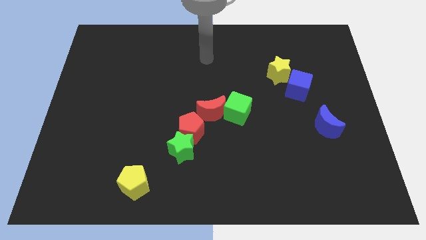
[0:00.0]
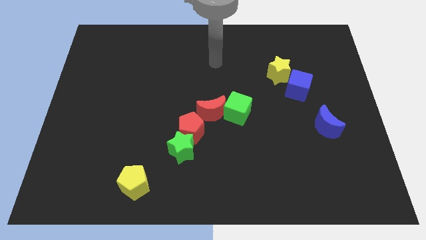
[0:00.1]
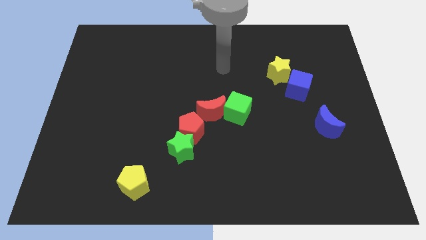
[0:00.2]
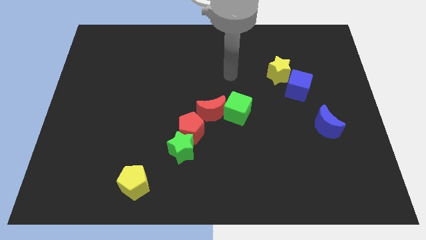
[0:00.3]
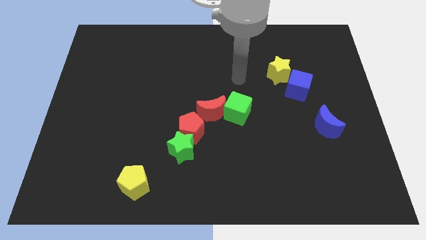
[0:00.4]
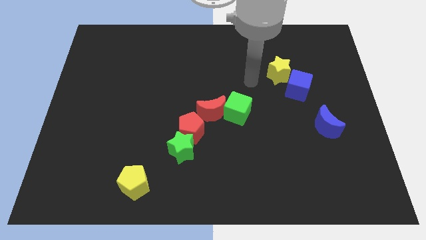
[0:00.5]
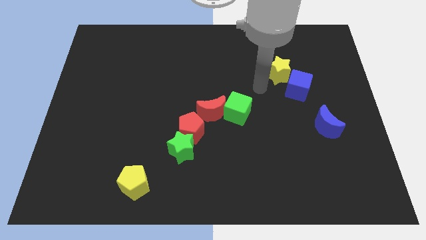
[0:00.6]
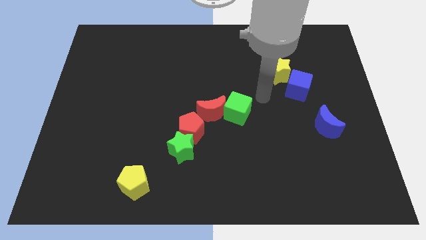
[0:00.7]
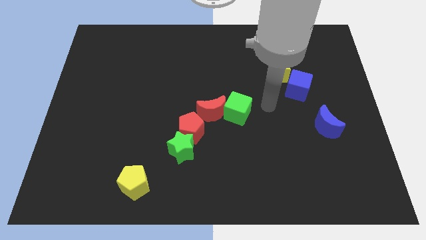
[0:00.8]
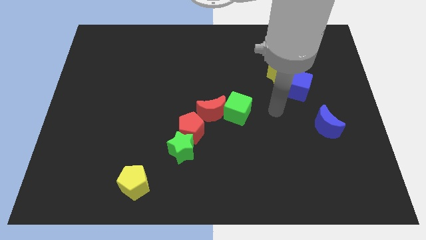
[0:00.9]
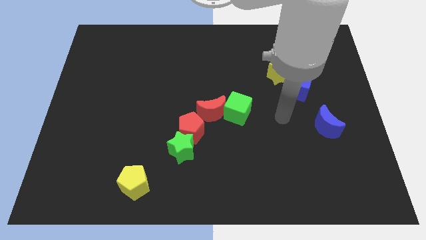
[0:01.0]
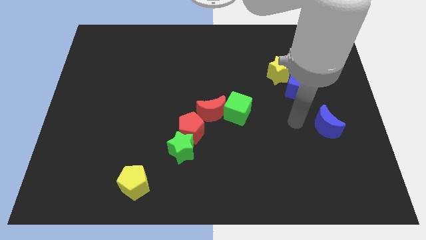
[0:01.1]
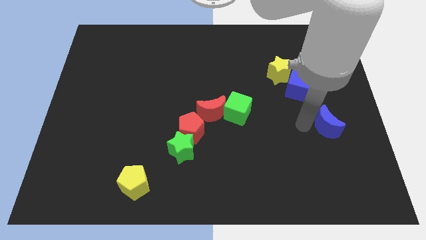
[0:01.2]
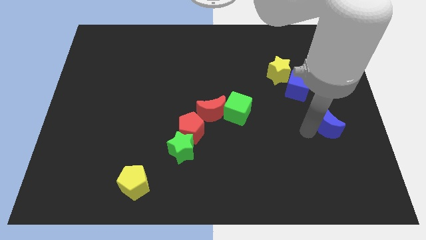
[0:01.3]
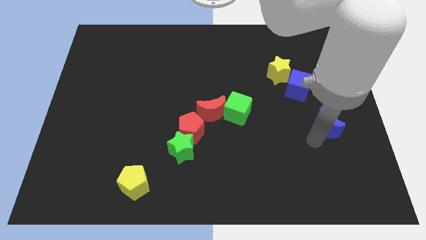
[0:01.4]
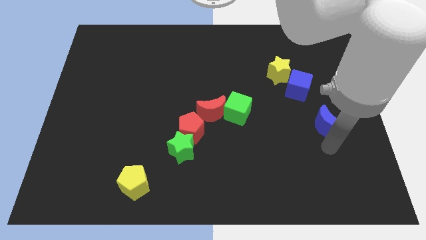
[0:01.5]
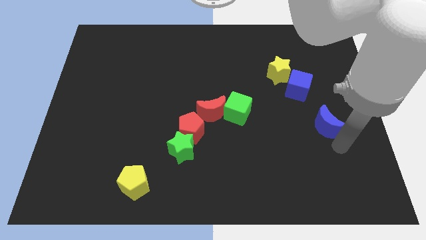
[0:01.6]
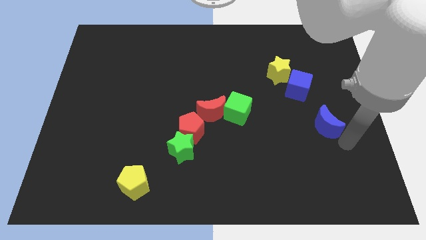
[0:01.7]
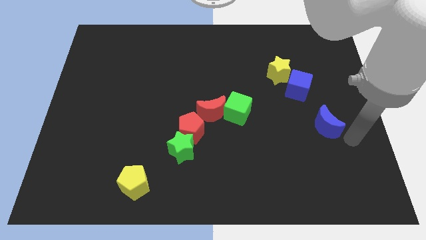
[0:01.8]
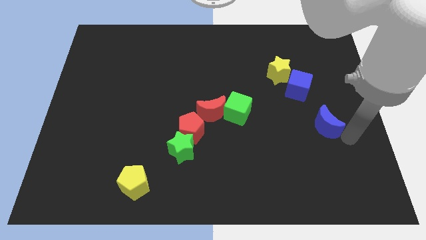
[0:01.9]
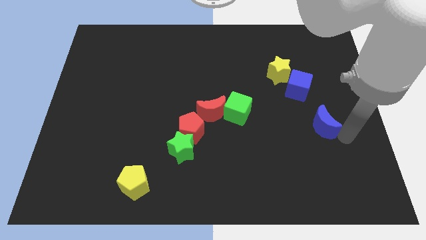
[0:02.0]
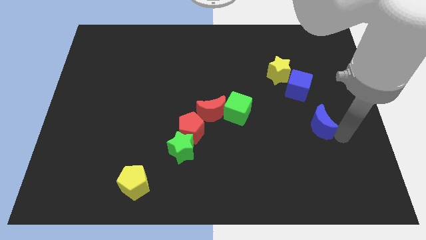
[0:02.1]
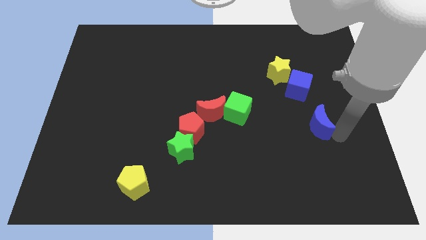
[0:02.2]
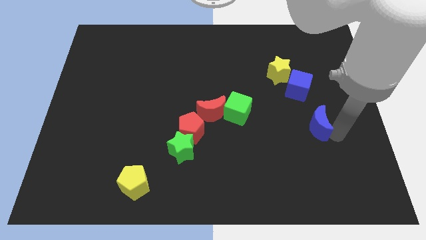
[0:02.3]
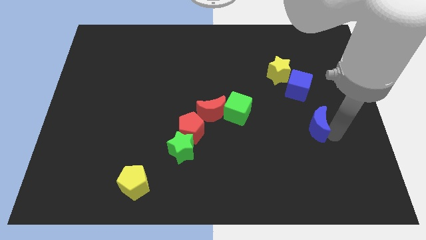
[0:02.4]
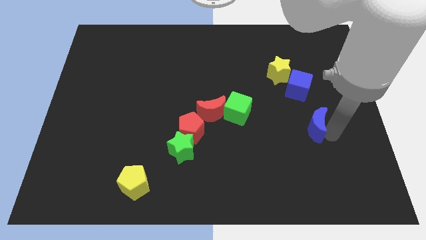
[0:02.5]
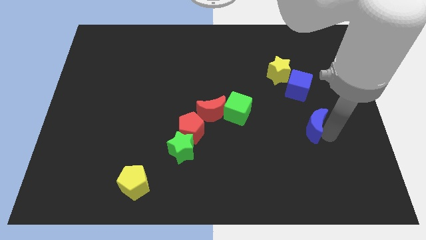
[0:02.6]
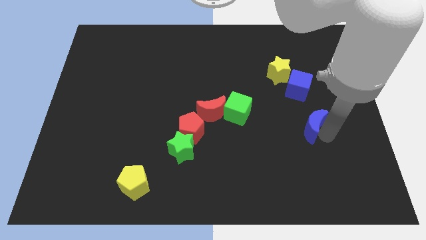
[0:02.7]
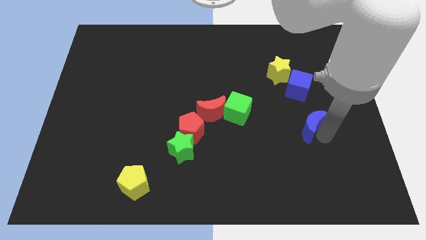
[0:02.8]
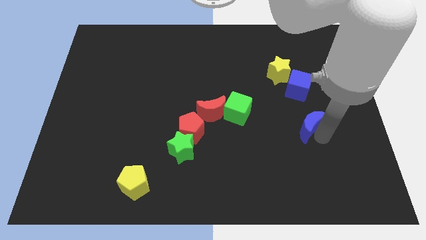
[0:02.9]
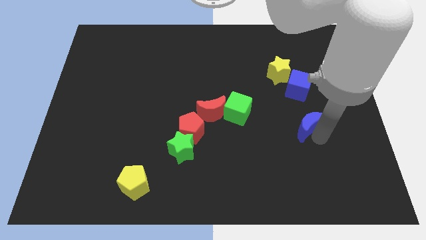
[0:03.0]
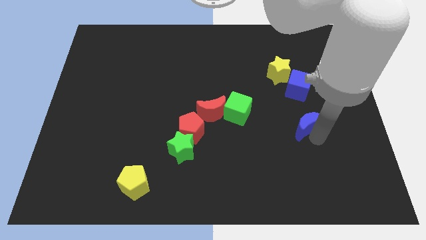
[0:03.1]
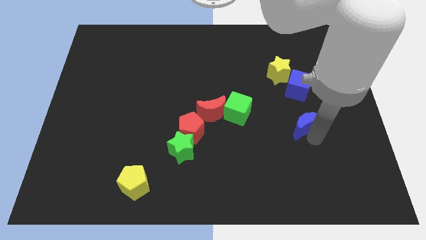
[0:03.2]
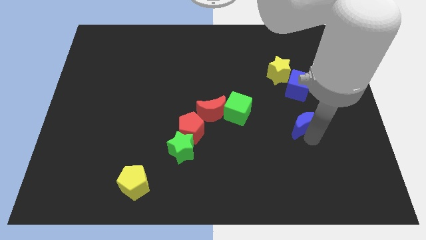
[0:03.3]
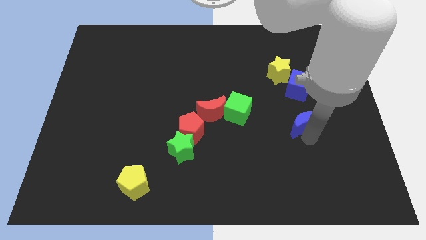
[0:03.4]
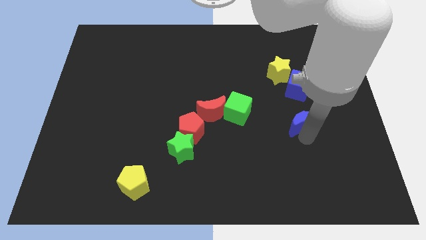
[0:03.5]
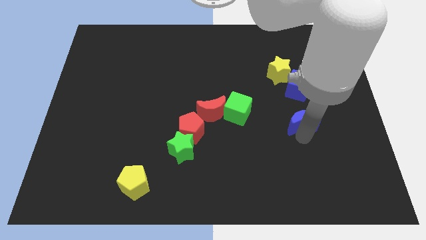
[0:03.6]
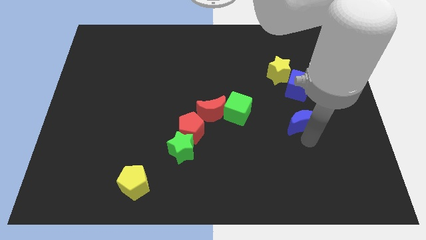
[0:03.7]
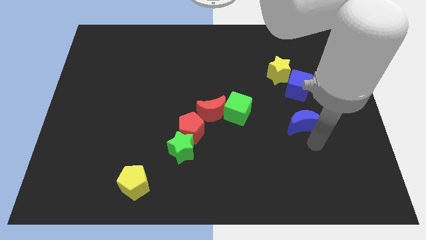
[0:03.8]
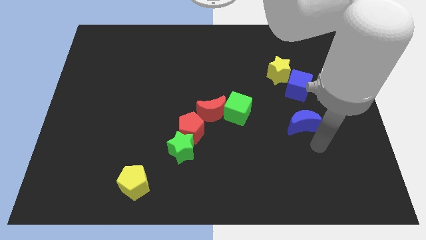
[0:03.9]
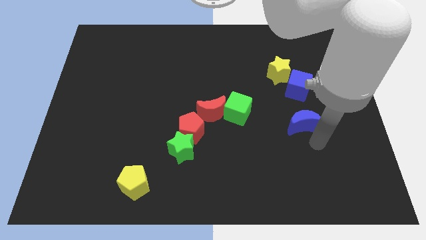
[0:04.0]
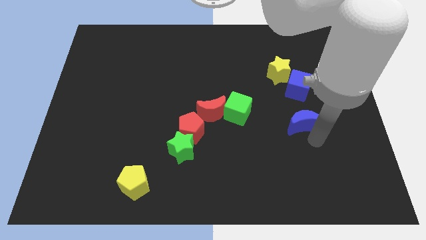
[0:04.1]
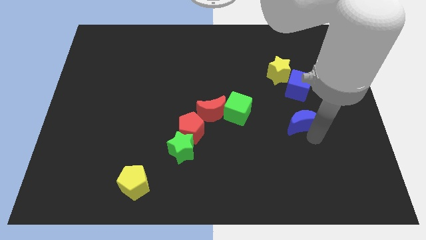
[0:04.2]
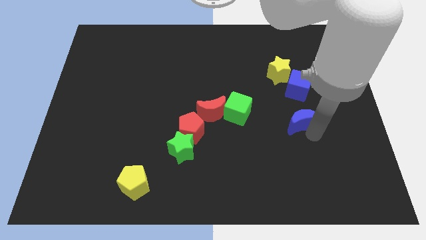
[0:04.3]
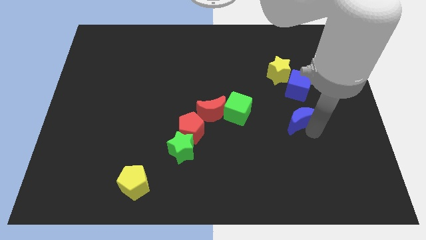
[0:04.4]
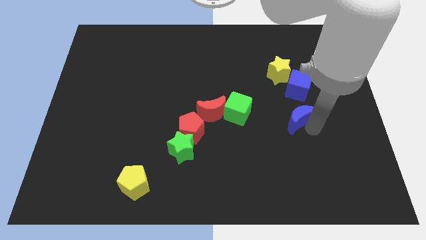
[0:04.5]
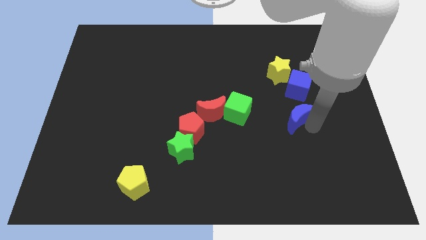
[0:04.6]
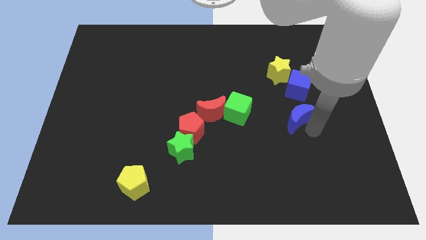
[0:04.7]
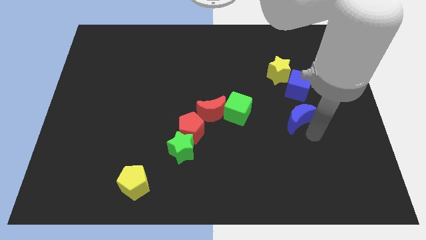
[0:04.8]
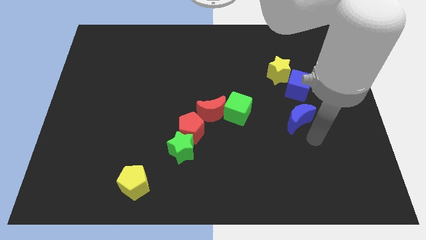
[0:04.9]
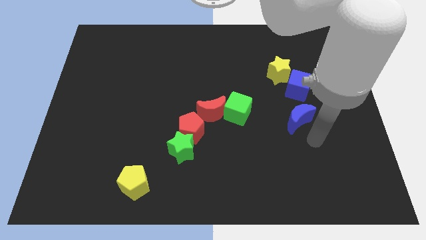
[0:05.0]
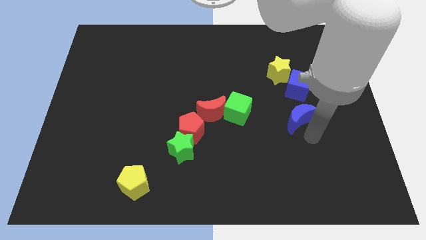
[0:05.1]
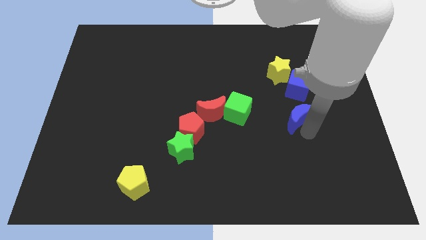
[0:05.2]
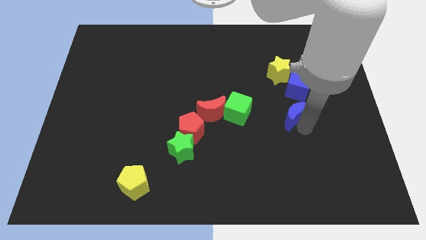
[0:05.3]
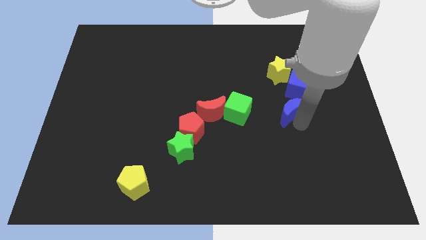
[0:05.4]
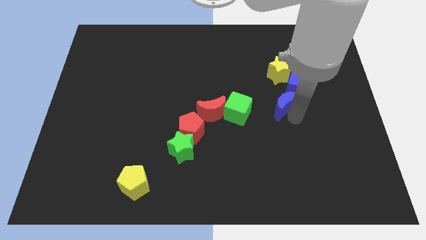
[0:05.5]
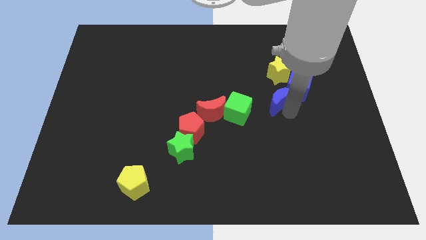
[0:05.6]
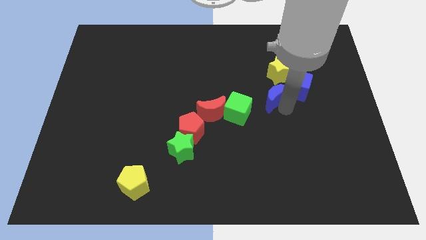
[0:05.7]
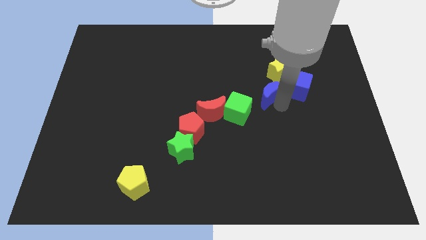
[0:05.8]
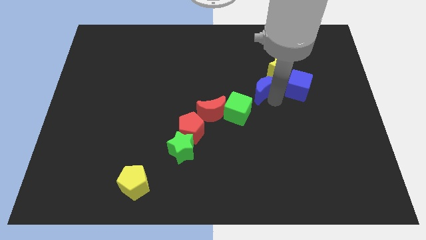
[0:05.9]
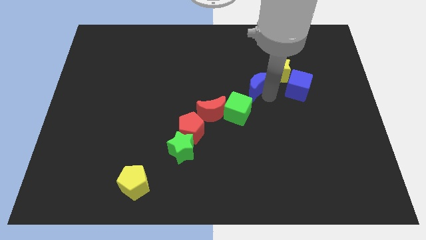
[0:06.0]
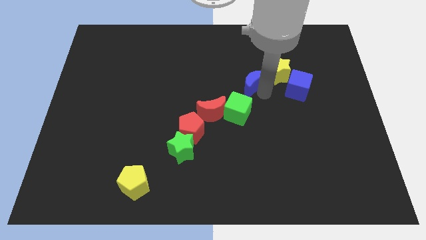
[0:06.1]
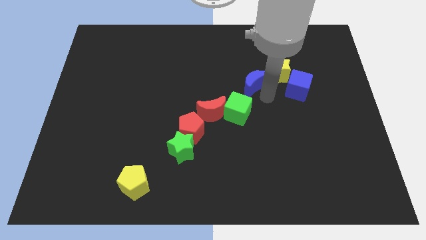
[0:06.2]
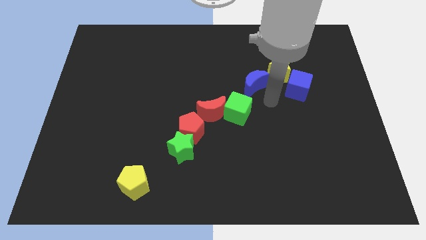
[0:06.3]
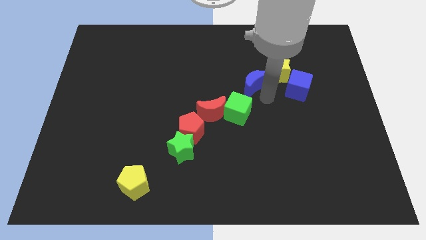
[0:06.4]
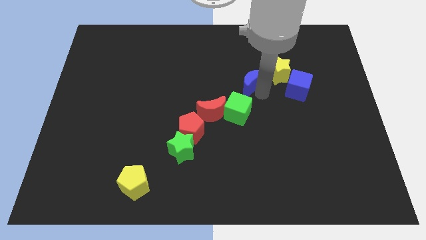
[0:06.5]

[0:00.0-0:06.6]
move the blue moon upwards and left

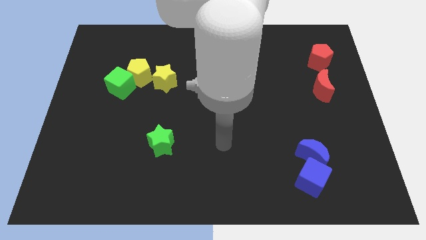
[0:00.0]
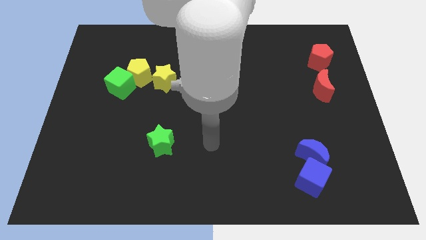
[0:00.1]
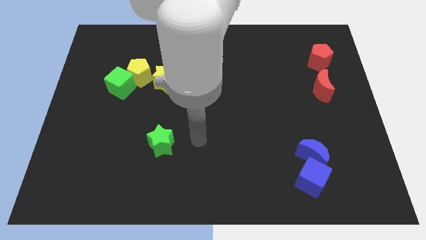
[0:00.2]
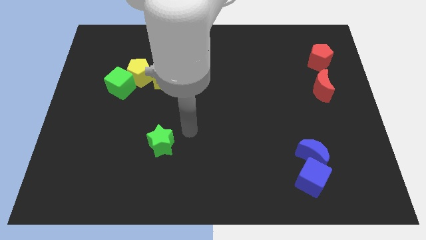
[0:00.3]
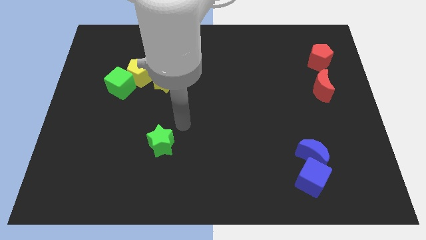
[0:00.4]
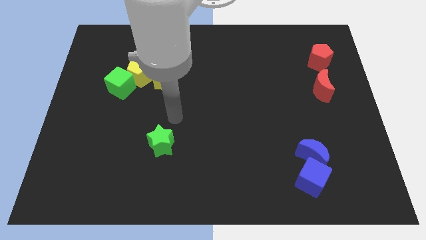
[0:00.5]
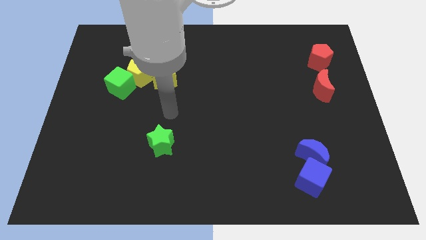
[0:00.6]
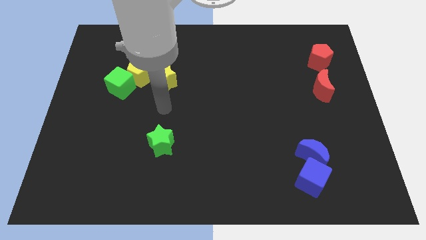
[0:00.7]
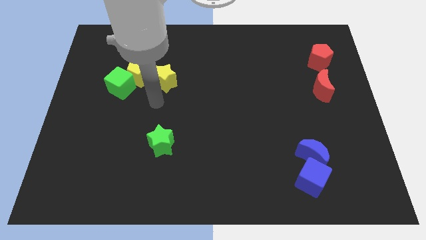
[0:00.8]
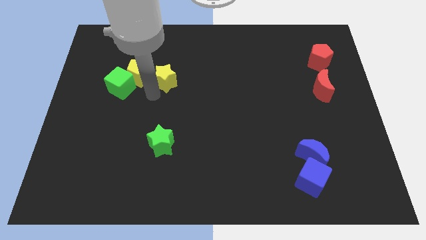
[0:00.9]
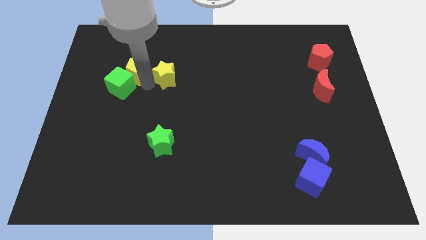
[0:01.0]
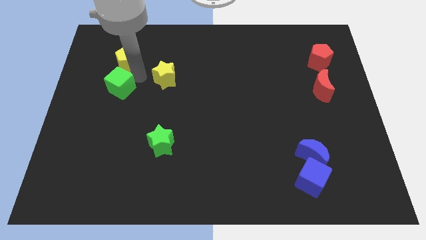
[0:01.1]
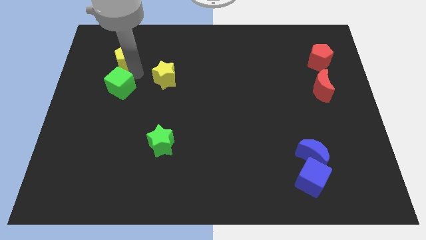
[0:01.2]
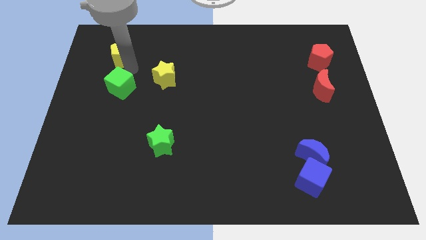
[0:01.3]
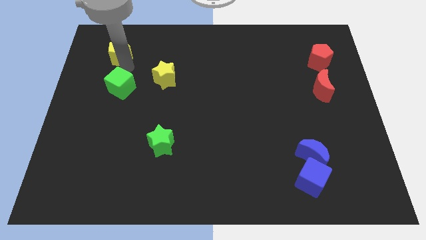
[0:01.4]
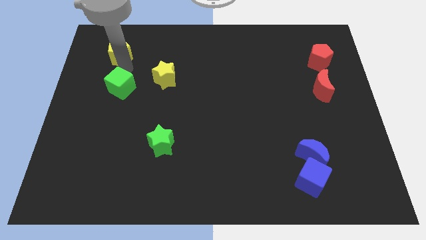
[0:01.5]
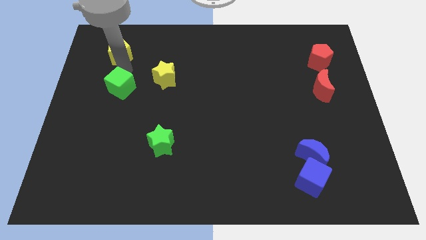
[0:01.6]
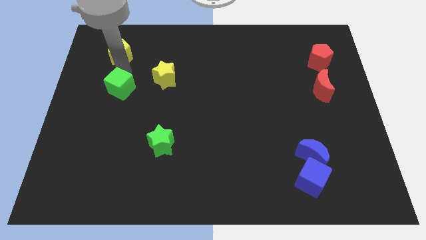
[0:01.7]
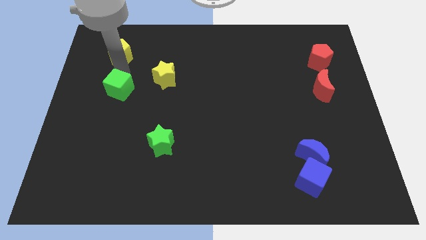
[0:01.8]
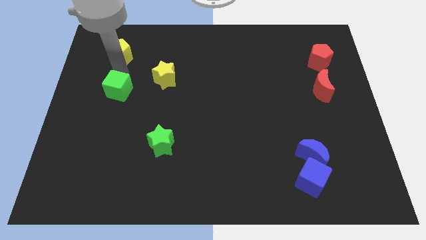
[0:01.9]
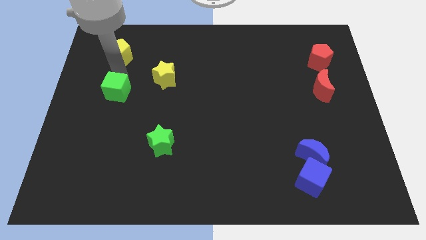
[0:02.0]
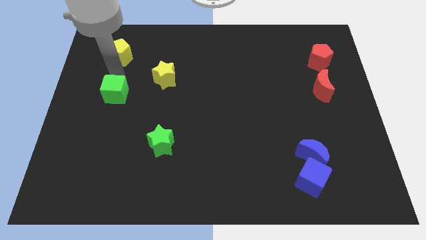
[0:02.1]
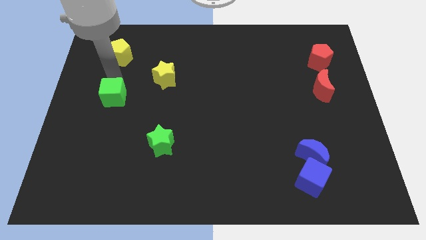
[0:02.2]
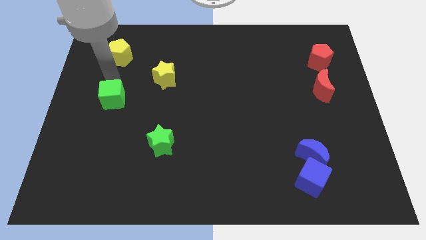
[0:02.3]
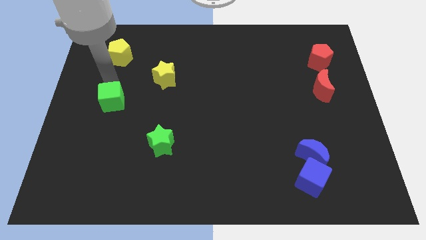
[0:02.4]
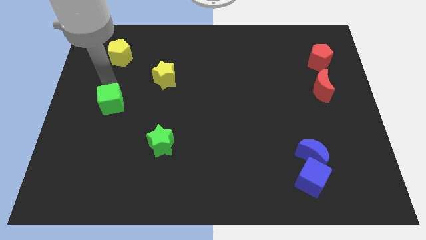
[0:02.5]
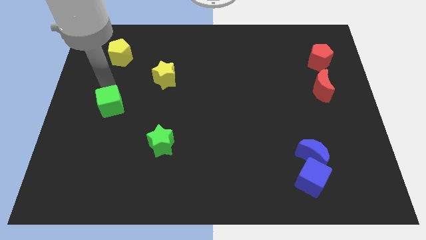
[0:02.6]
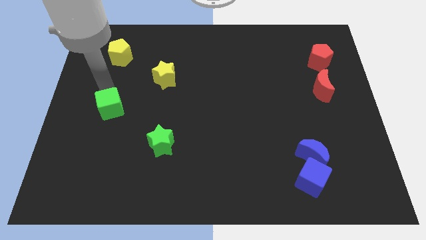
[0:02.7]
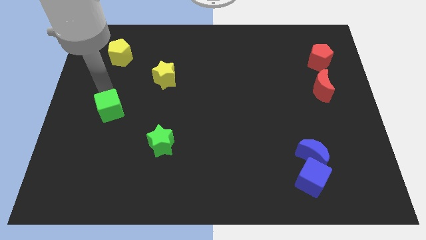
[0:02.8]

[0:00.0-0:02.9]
push the green cube down somewhat
